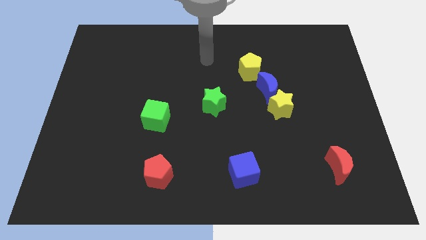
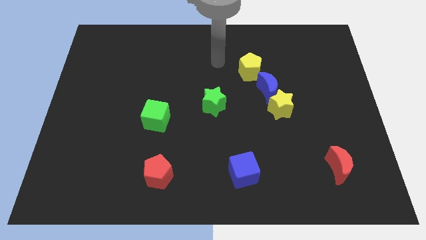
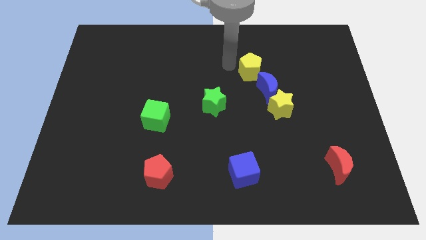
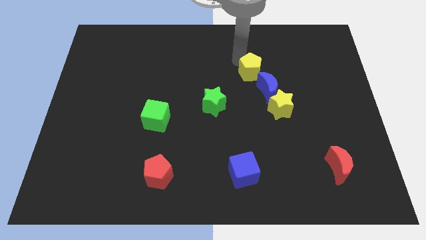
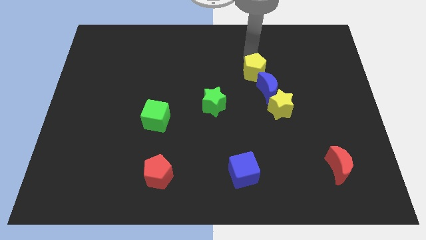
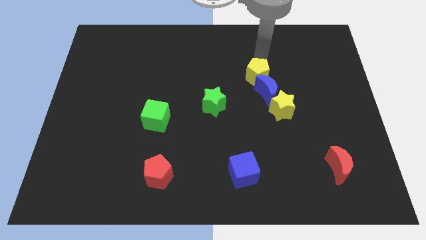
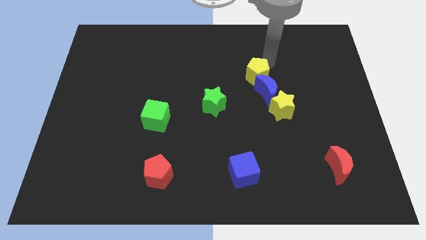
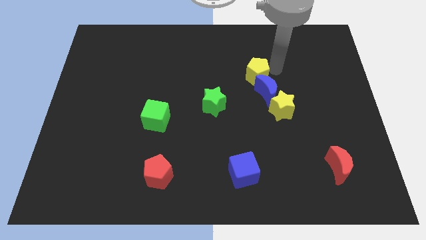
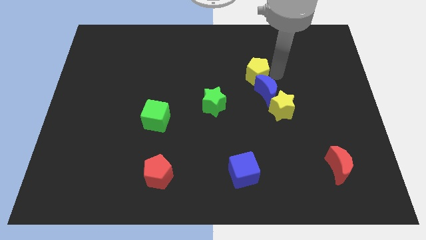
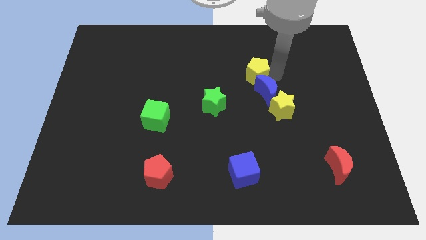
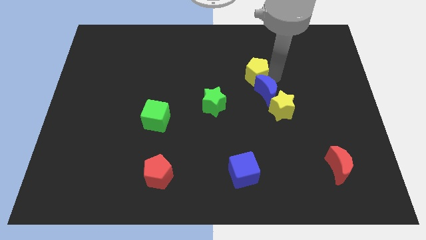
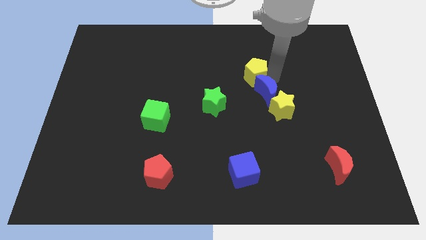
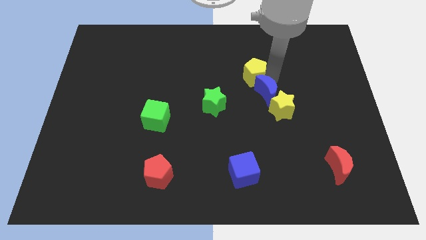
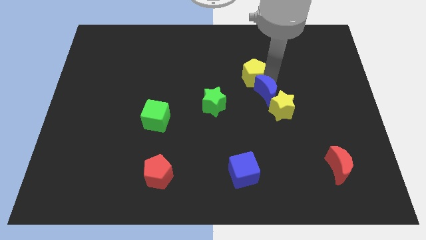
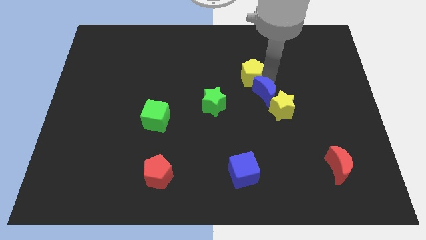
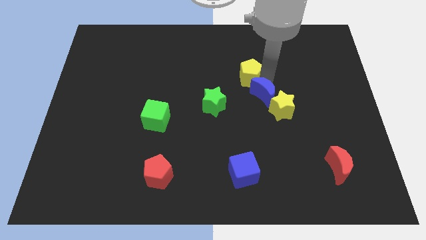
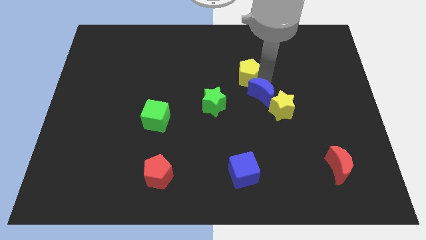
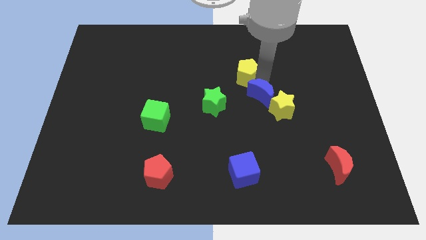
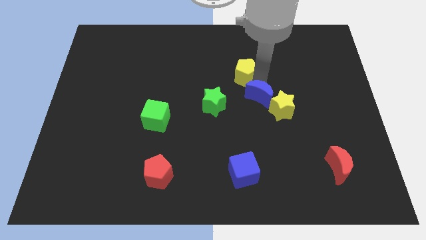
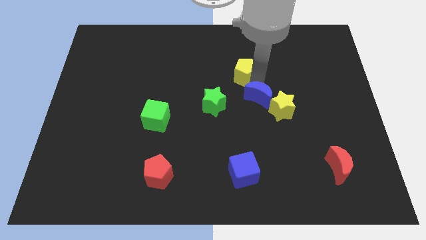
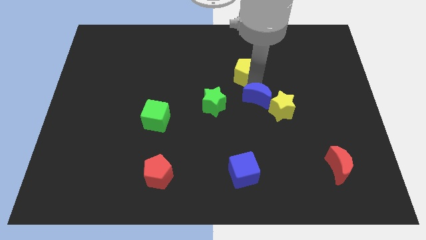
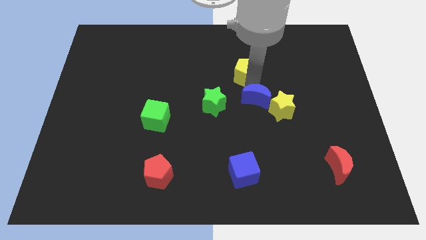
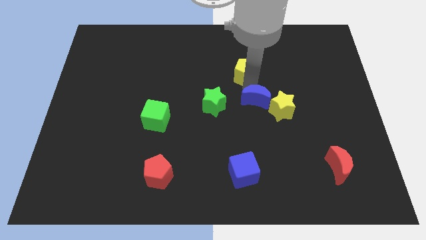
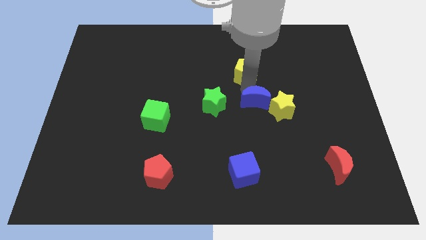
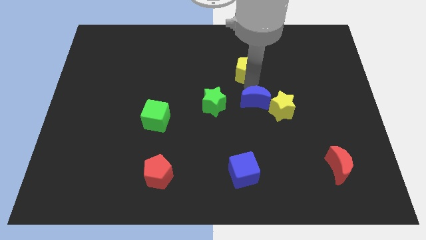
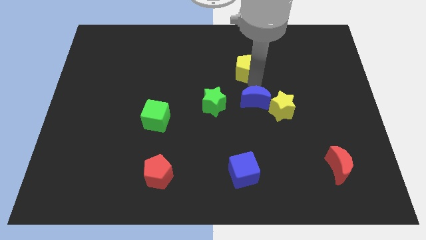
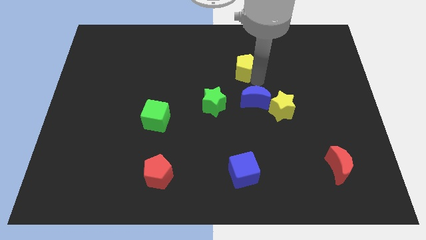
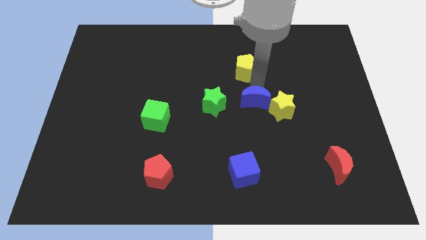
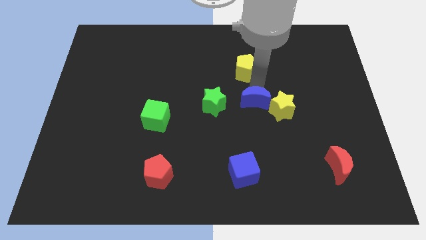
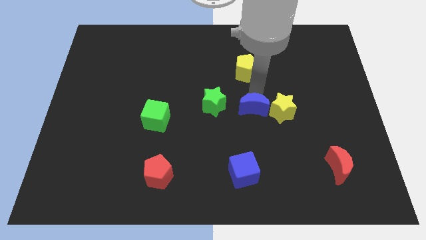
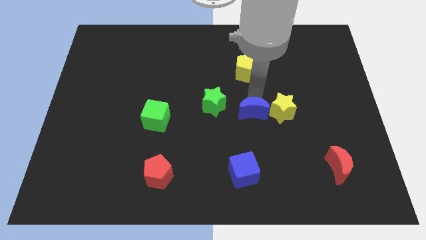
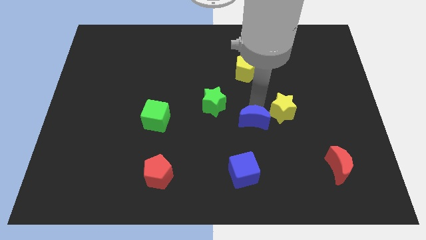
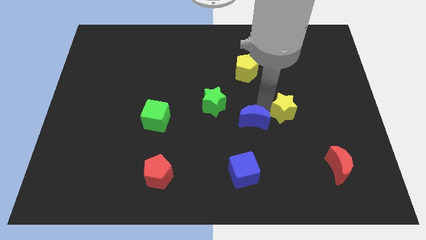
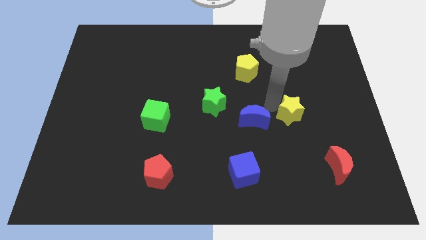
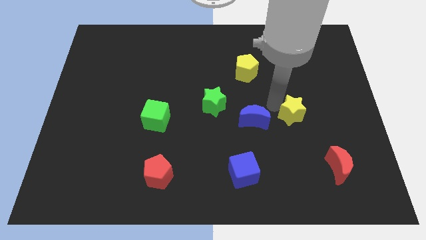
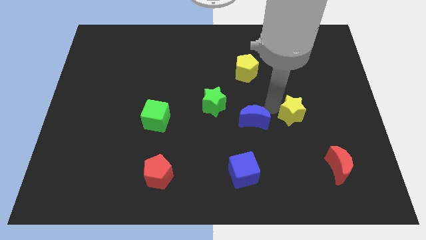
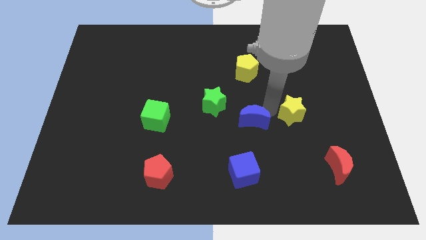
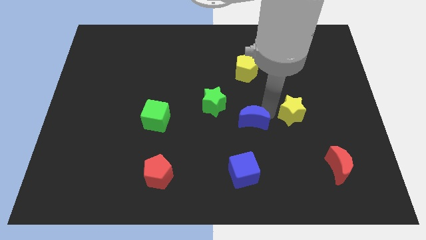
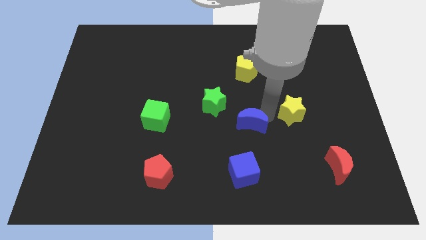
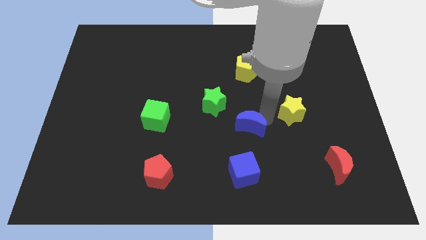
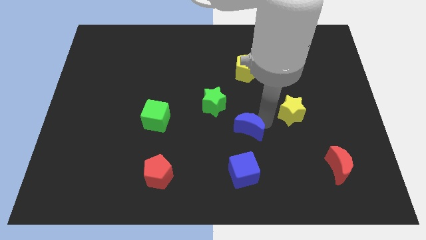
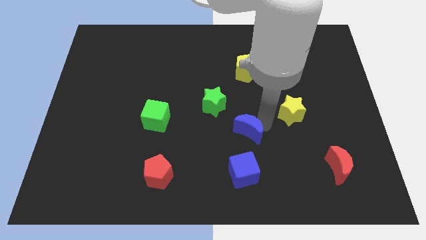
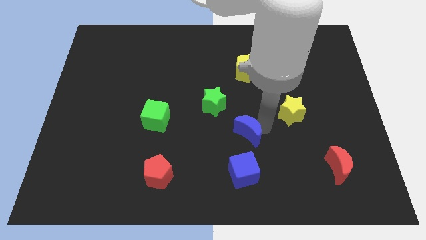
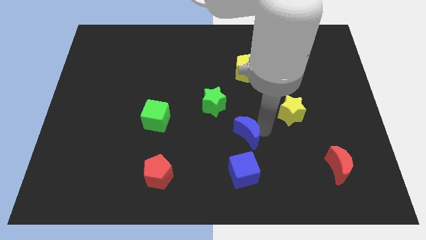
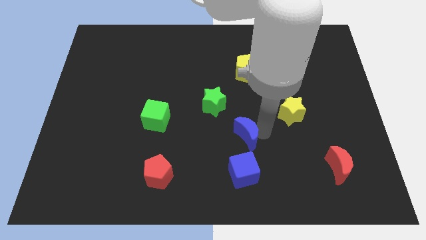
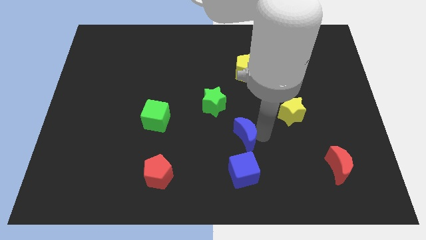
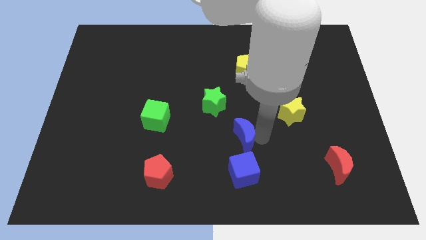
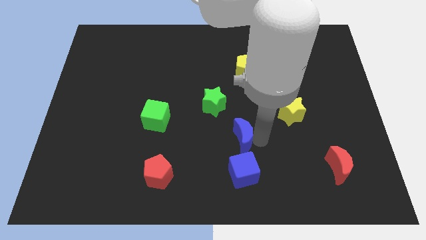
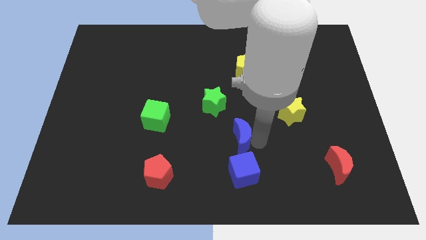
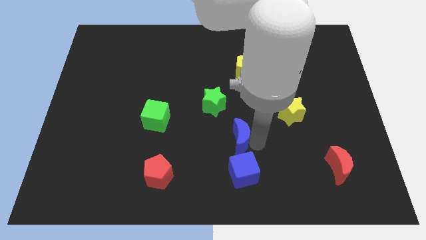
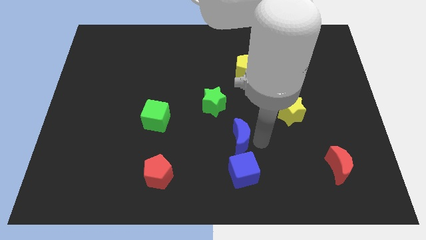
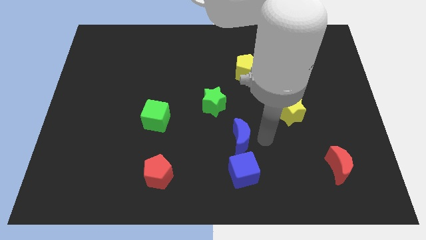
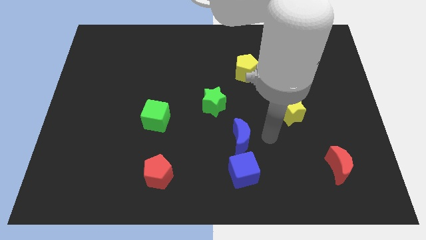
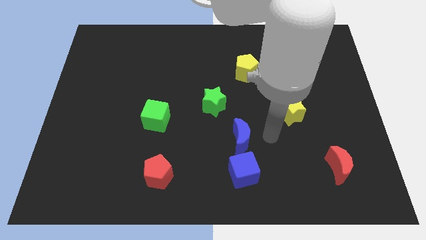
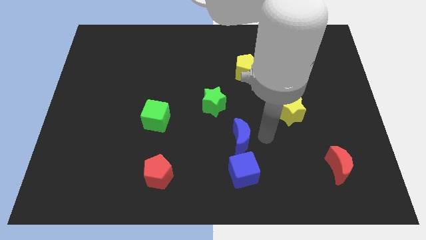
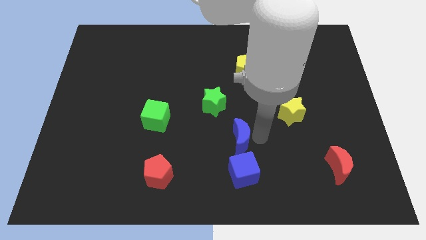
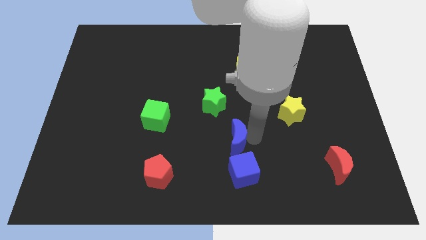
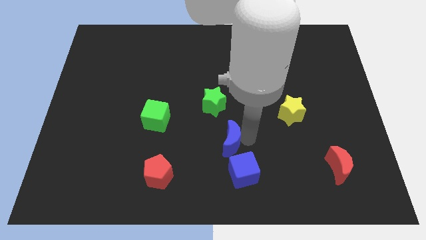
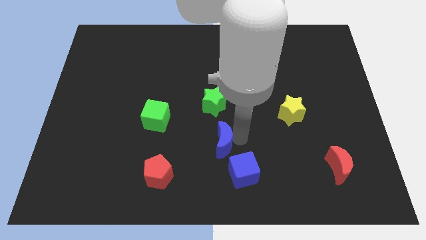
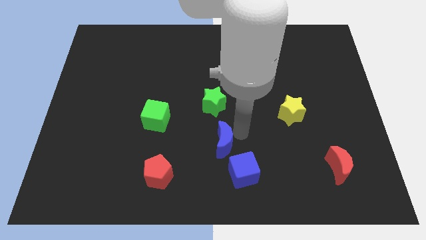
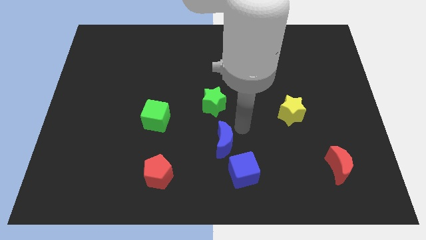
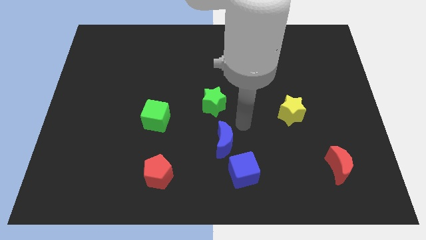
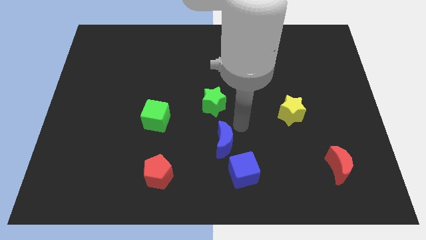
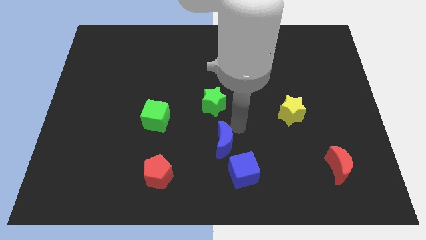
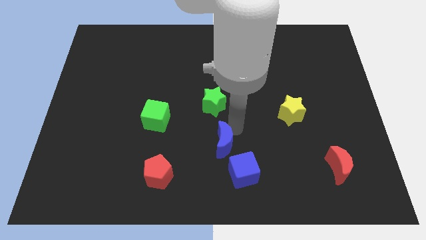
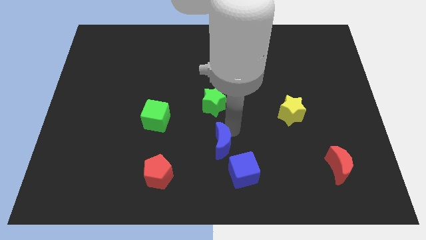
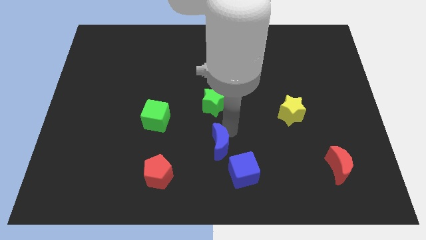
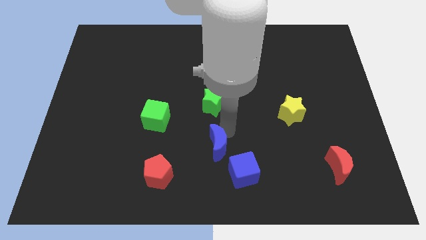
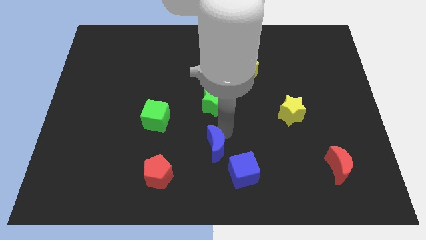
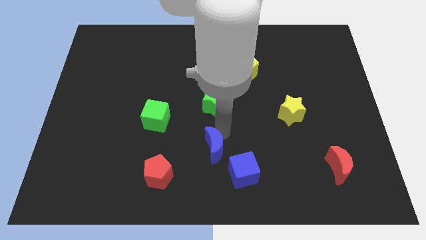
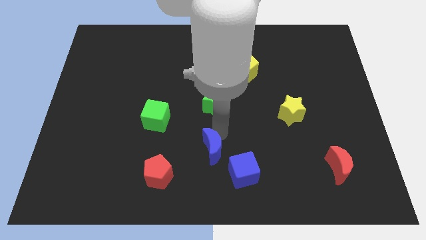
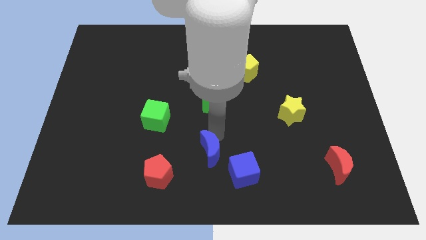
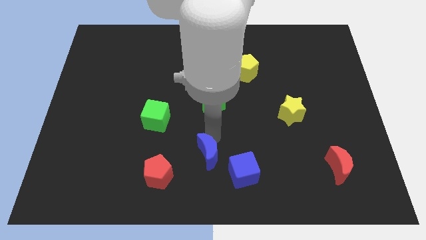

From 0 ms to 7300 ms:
put the blue moon to the bottom
